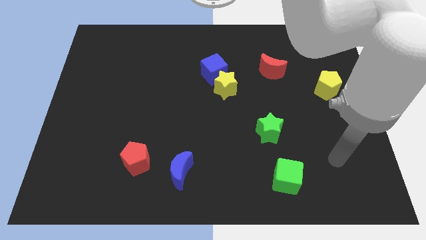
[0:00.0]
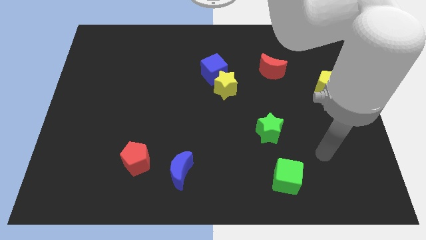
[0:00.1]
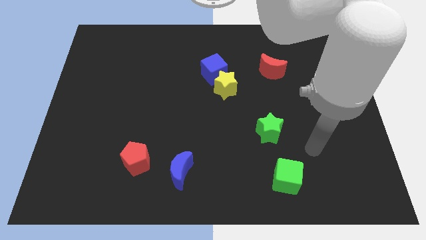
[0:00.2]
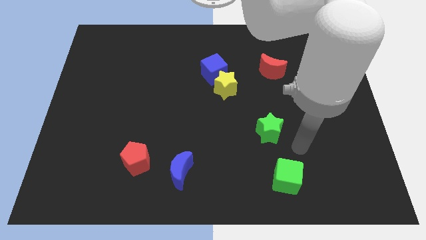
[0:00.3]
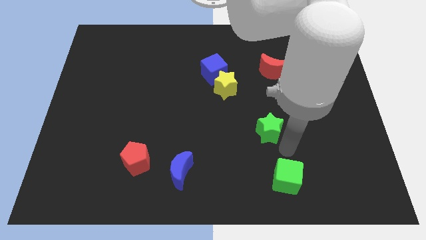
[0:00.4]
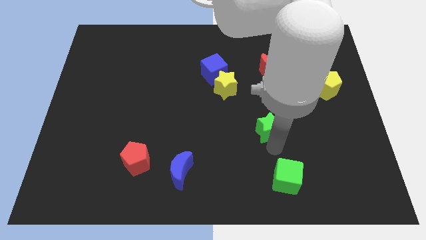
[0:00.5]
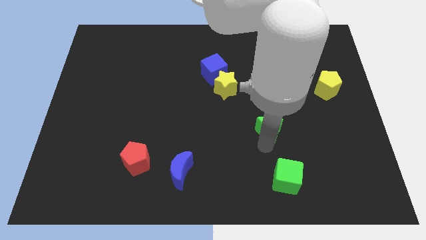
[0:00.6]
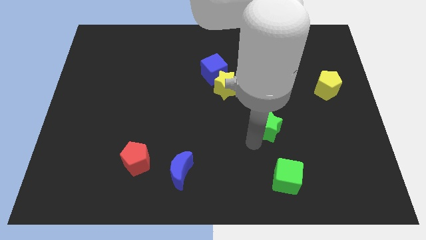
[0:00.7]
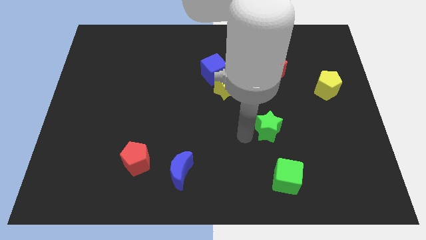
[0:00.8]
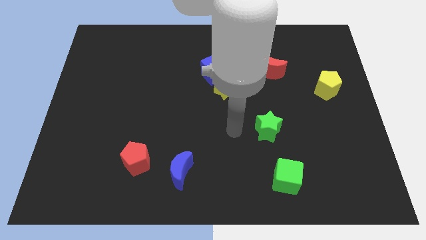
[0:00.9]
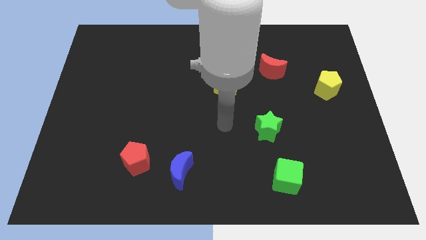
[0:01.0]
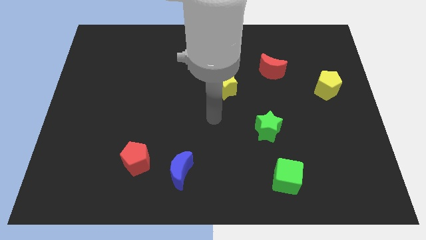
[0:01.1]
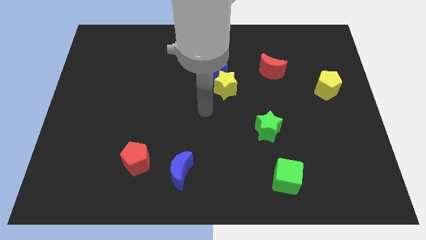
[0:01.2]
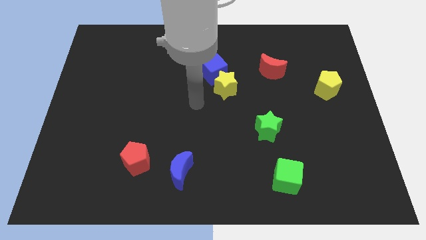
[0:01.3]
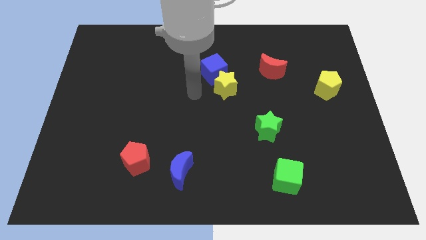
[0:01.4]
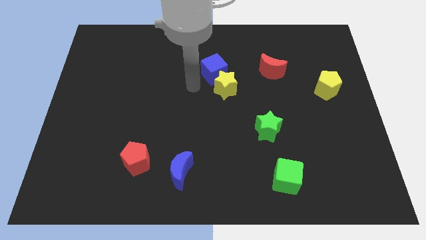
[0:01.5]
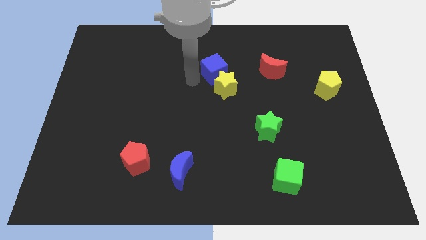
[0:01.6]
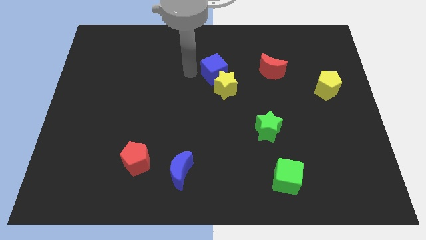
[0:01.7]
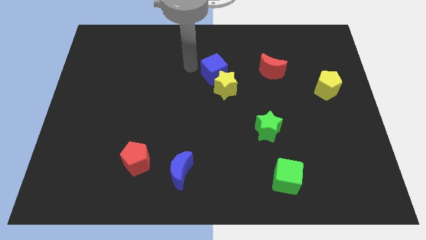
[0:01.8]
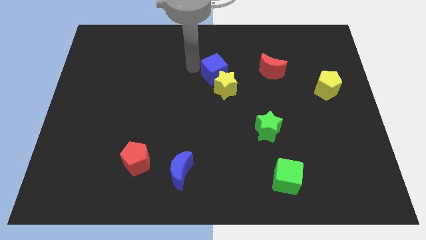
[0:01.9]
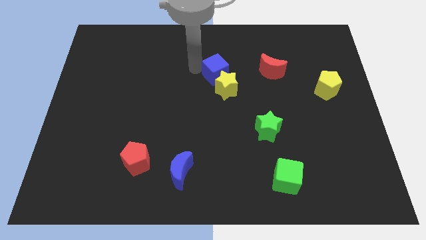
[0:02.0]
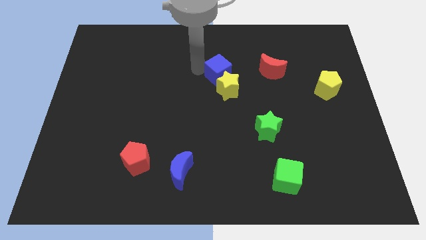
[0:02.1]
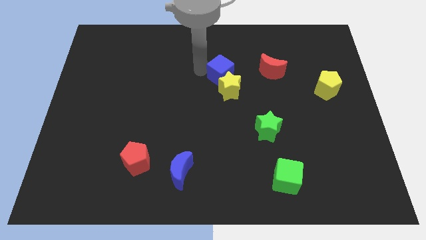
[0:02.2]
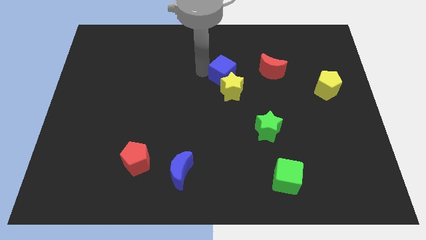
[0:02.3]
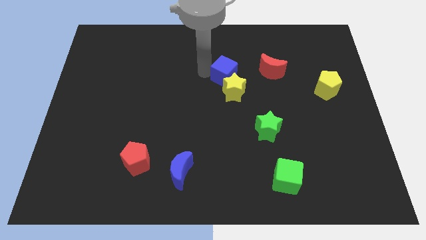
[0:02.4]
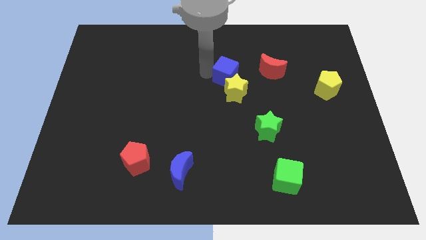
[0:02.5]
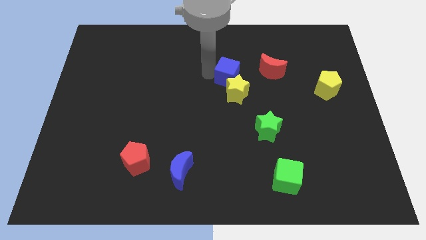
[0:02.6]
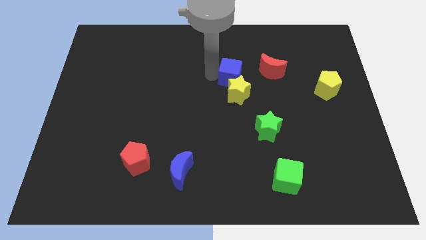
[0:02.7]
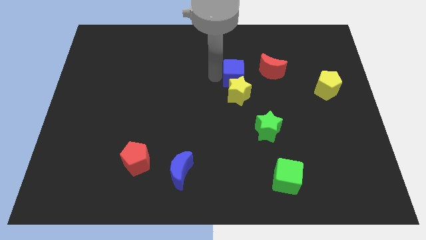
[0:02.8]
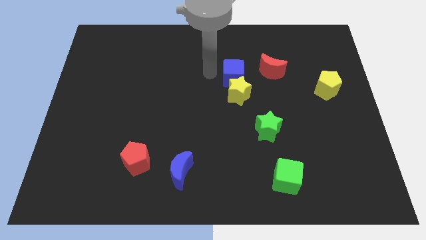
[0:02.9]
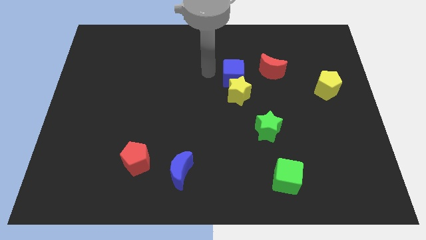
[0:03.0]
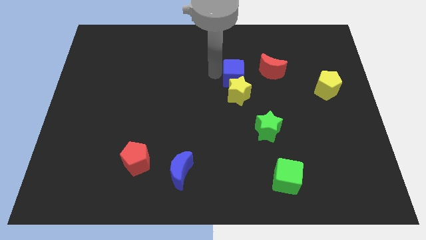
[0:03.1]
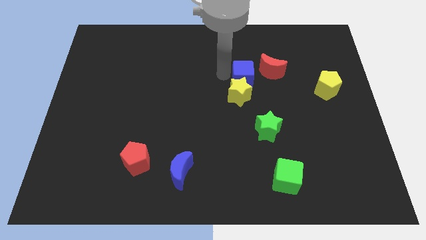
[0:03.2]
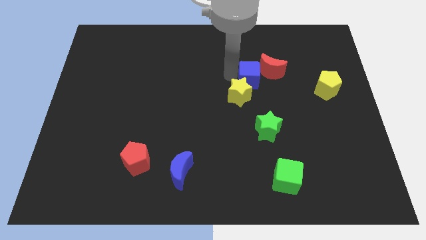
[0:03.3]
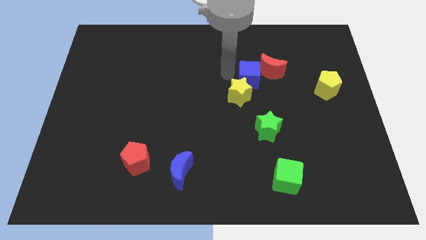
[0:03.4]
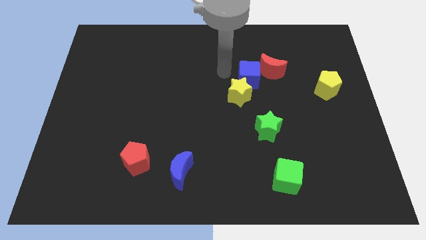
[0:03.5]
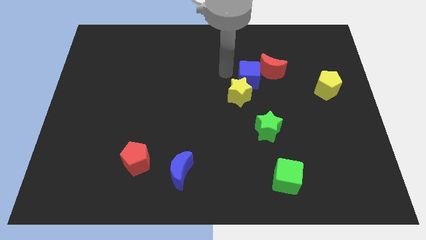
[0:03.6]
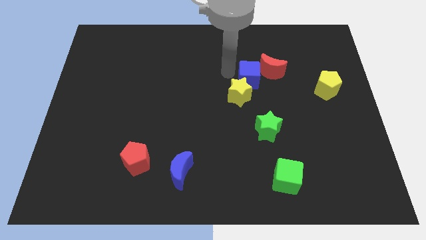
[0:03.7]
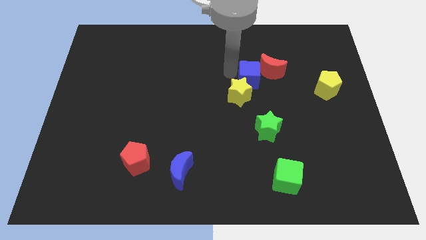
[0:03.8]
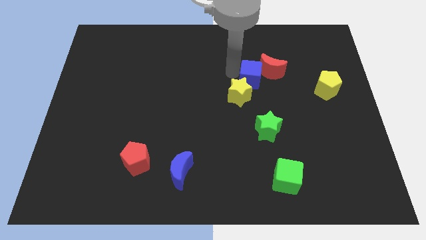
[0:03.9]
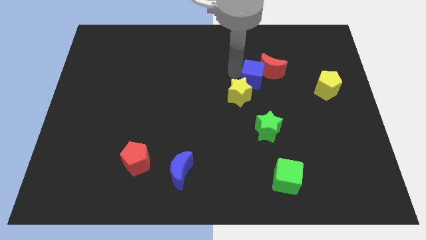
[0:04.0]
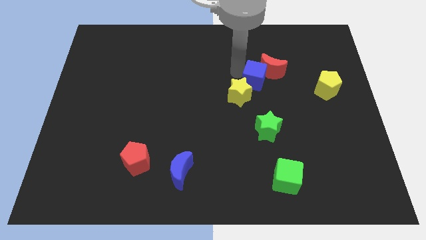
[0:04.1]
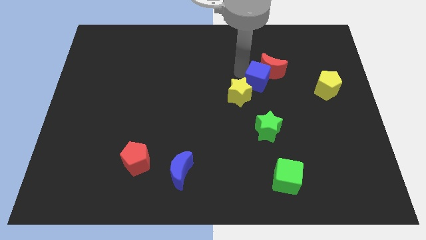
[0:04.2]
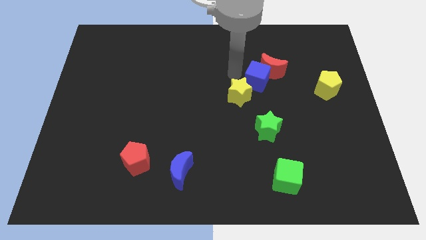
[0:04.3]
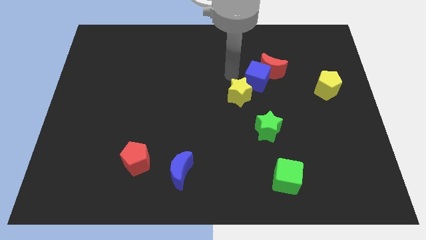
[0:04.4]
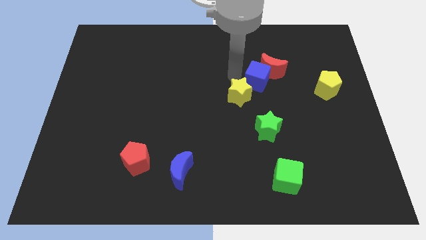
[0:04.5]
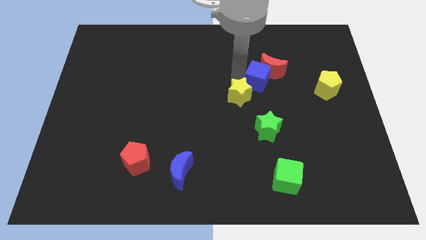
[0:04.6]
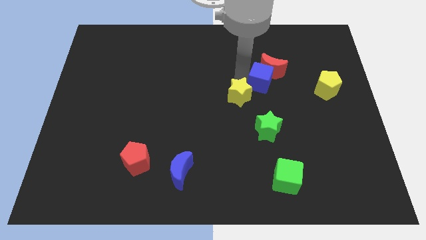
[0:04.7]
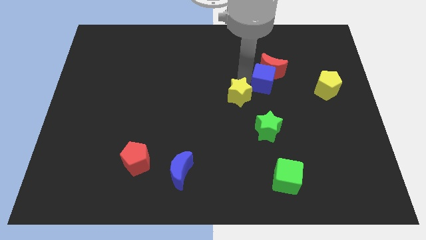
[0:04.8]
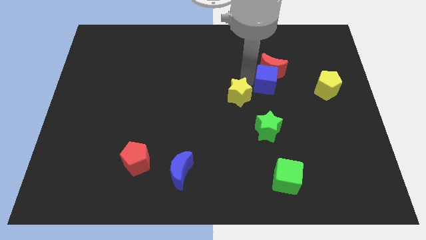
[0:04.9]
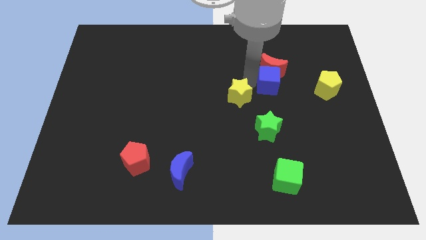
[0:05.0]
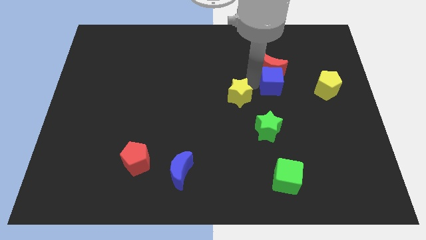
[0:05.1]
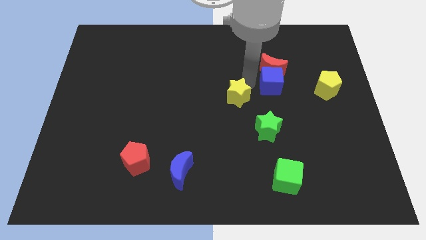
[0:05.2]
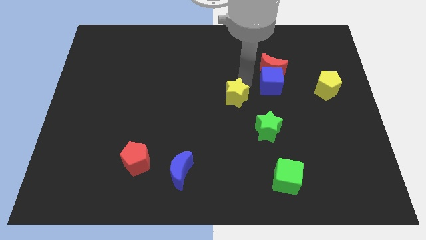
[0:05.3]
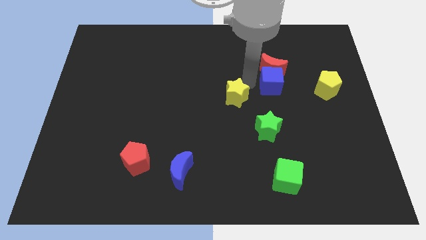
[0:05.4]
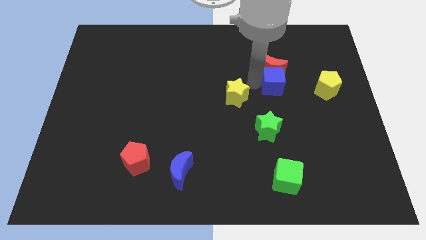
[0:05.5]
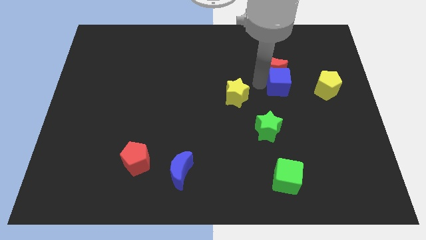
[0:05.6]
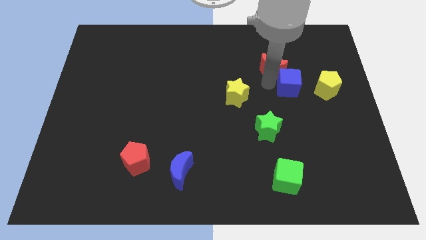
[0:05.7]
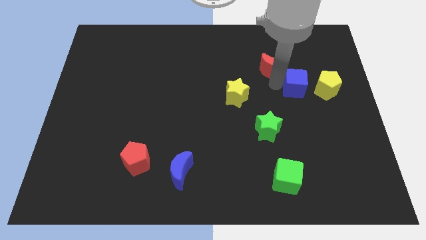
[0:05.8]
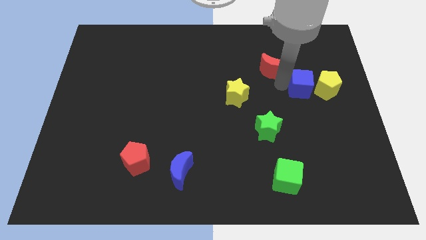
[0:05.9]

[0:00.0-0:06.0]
move the blue cube close to the yellow pentagon

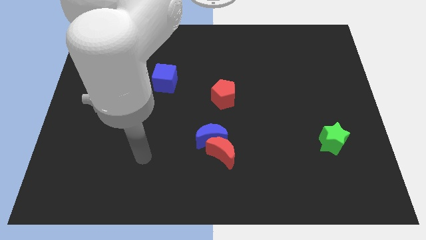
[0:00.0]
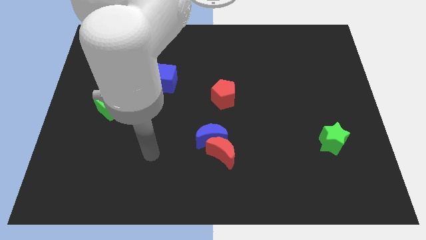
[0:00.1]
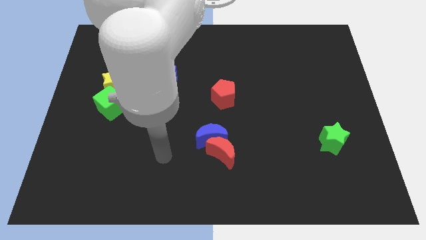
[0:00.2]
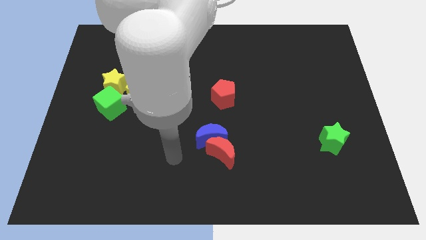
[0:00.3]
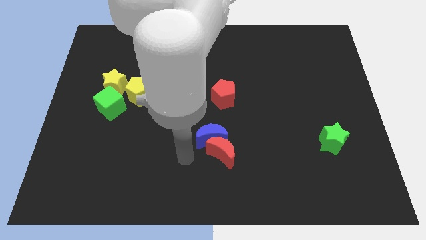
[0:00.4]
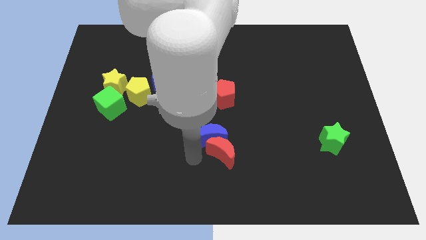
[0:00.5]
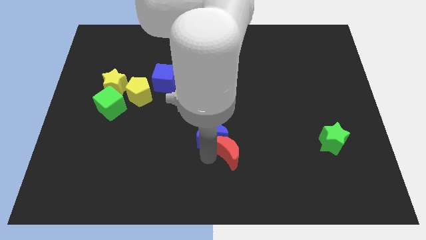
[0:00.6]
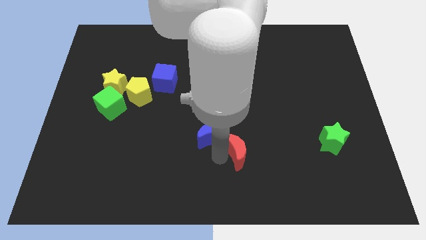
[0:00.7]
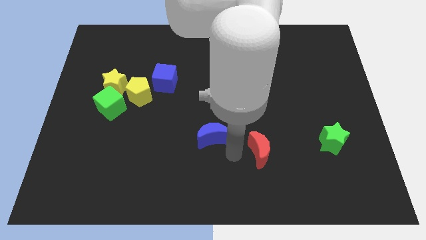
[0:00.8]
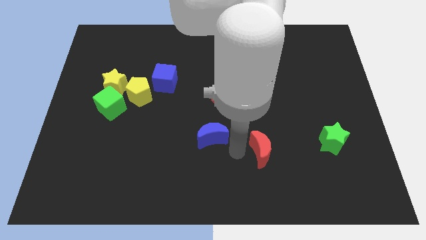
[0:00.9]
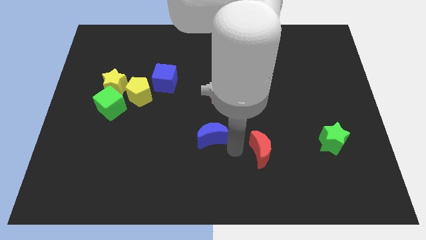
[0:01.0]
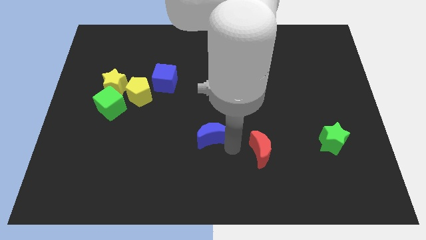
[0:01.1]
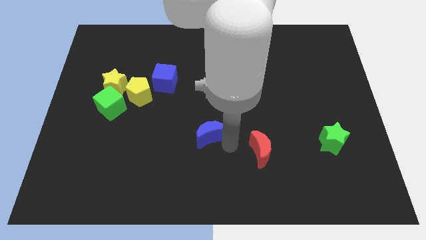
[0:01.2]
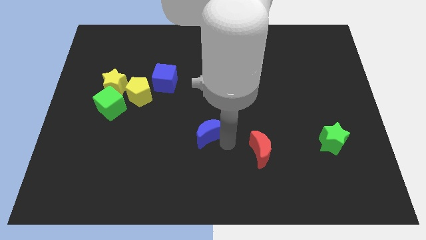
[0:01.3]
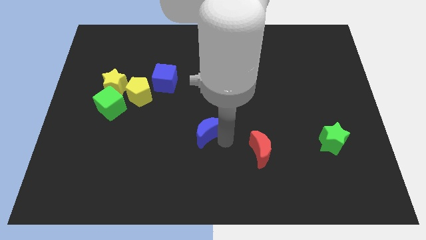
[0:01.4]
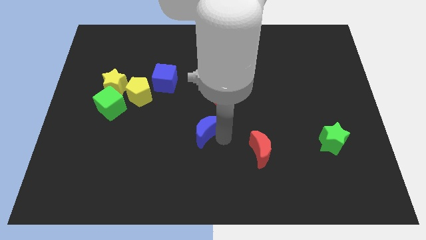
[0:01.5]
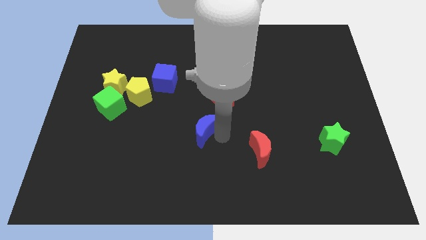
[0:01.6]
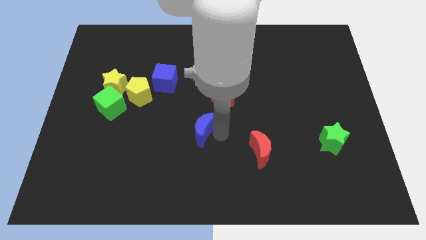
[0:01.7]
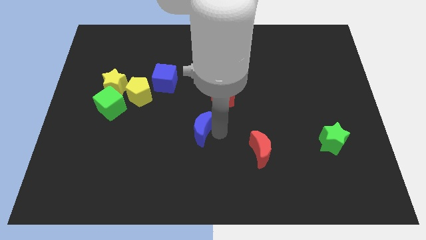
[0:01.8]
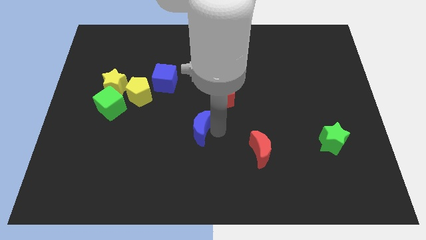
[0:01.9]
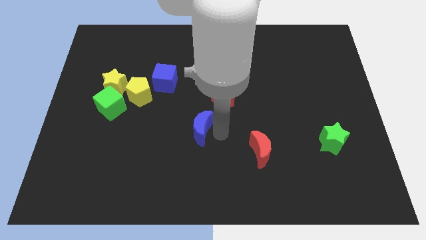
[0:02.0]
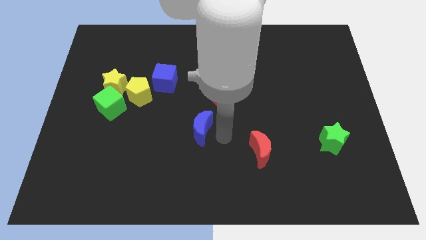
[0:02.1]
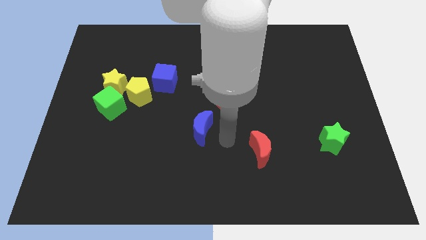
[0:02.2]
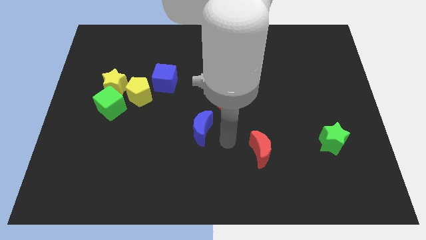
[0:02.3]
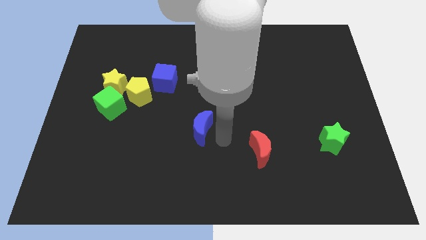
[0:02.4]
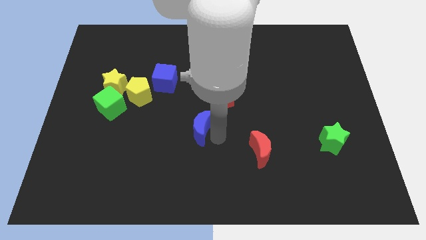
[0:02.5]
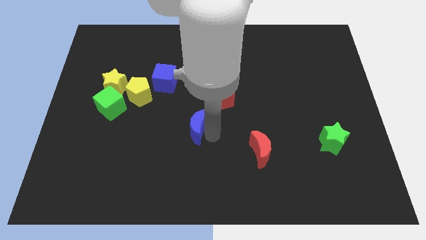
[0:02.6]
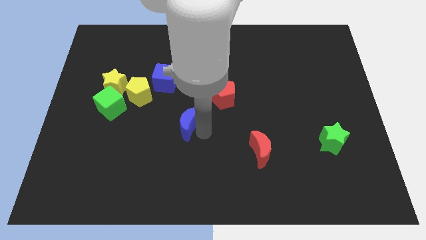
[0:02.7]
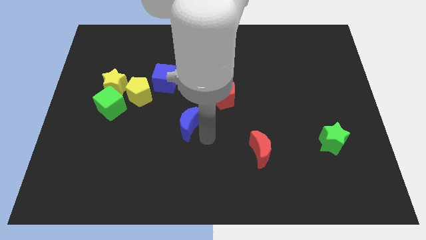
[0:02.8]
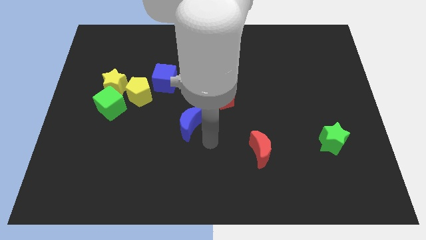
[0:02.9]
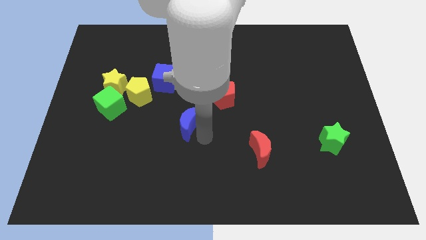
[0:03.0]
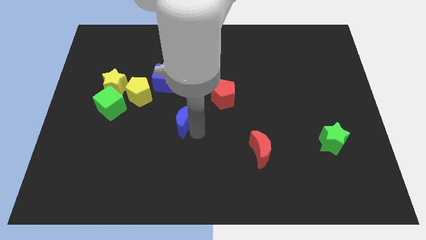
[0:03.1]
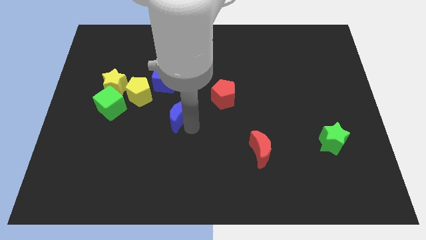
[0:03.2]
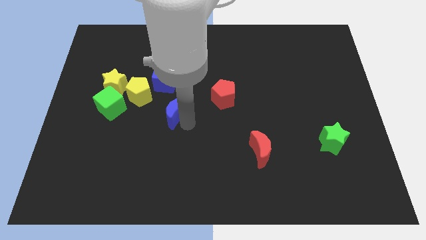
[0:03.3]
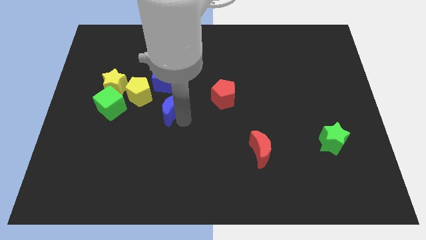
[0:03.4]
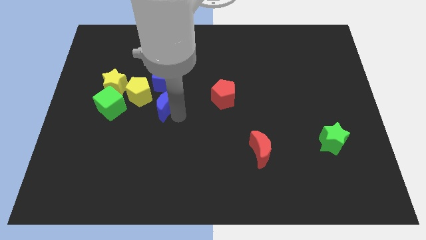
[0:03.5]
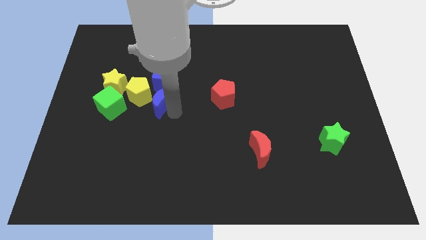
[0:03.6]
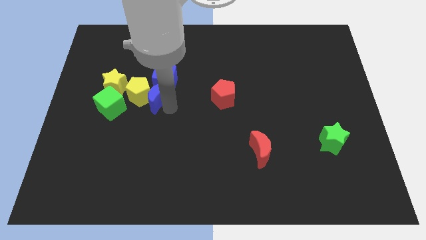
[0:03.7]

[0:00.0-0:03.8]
move the blue moon close to the yellow pentagon
